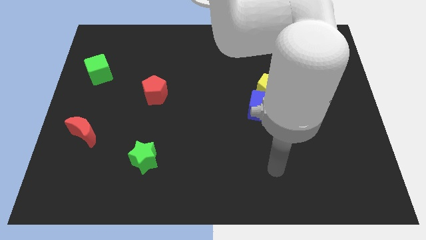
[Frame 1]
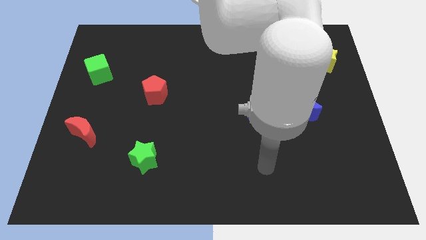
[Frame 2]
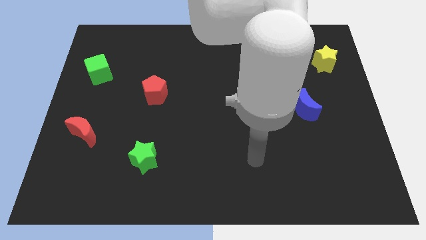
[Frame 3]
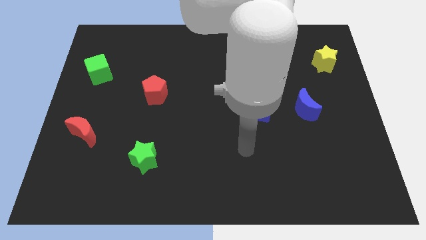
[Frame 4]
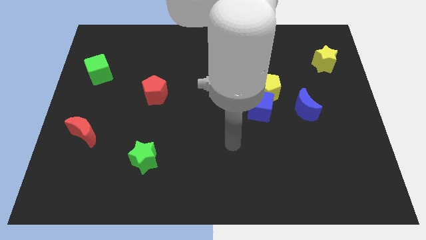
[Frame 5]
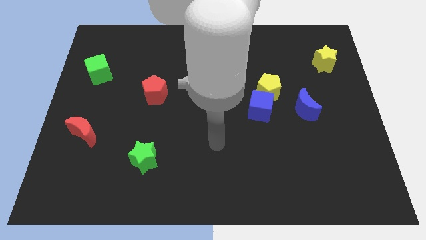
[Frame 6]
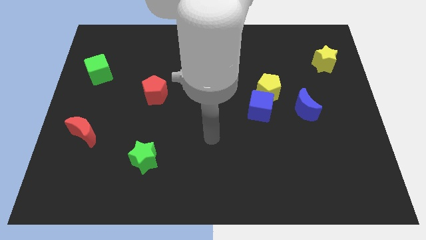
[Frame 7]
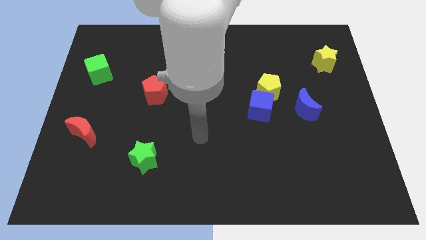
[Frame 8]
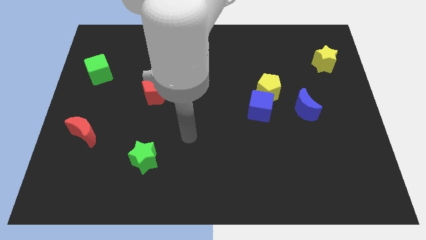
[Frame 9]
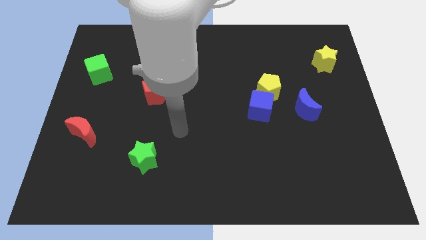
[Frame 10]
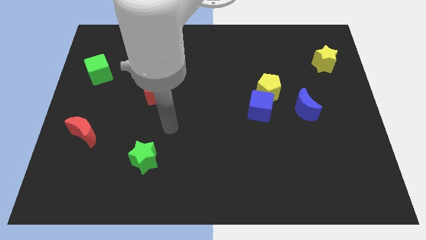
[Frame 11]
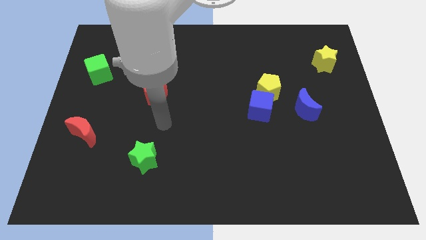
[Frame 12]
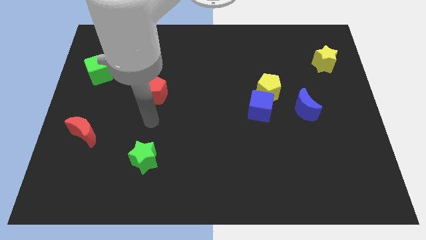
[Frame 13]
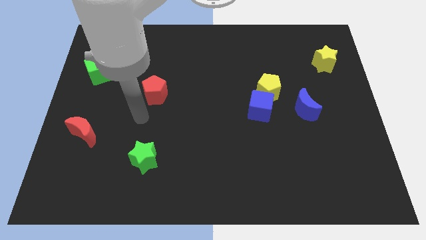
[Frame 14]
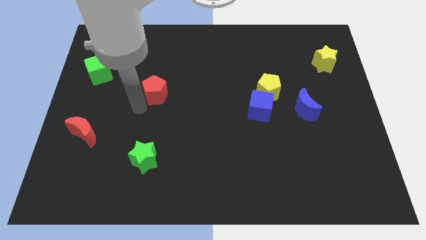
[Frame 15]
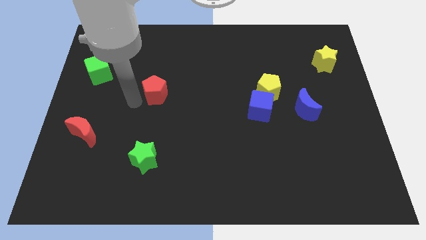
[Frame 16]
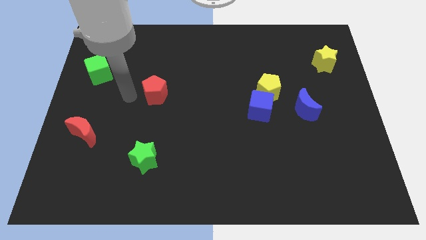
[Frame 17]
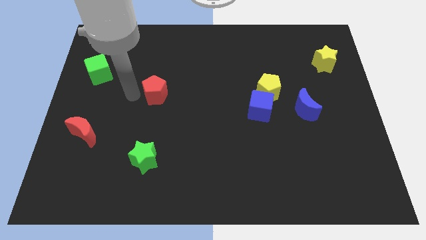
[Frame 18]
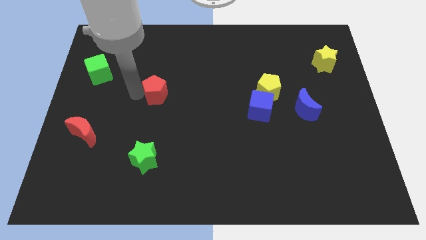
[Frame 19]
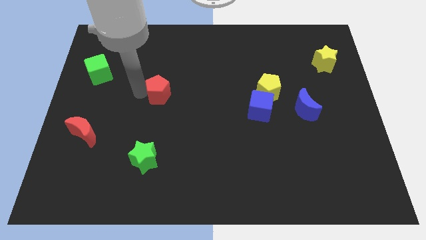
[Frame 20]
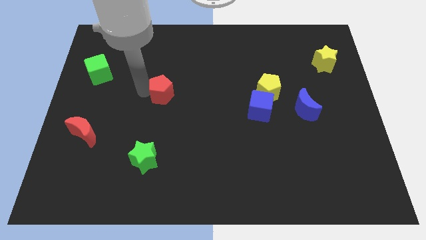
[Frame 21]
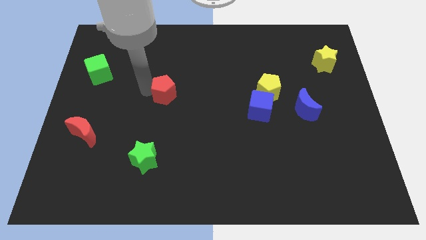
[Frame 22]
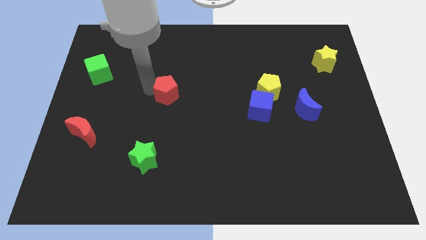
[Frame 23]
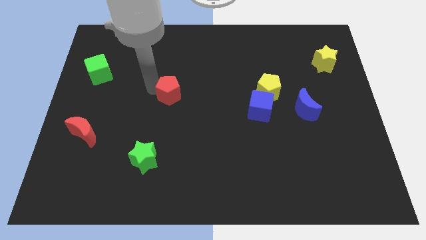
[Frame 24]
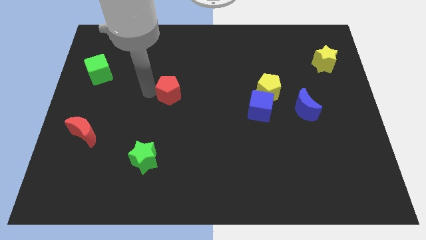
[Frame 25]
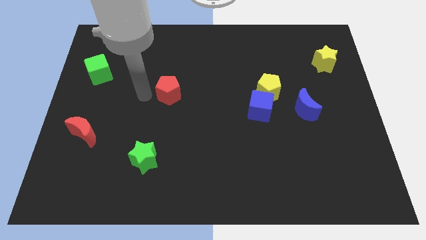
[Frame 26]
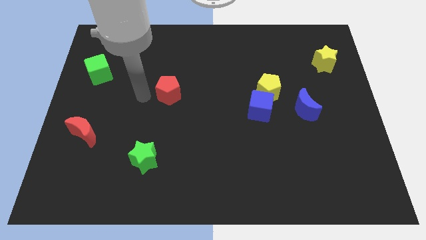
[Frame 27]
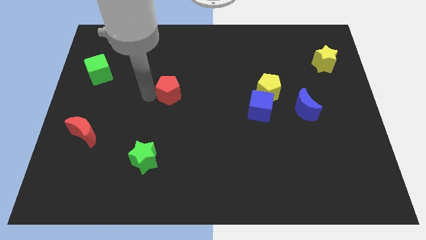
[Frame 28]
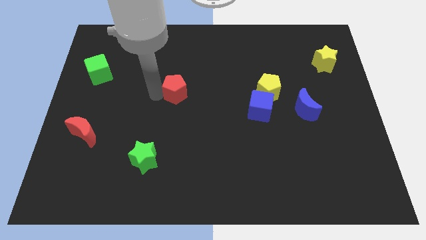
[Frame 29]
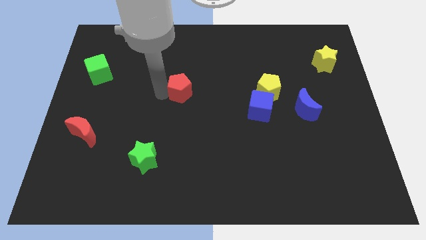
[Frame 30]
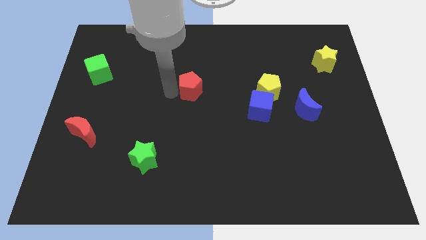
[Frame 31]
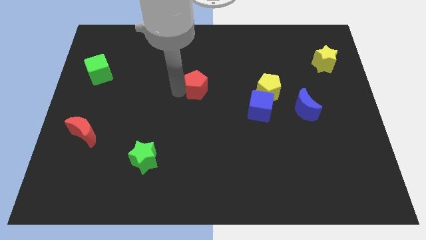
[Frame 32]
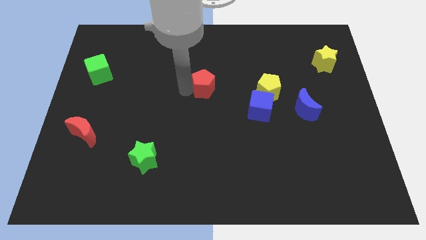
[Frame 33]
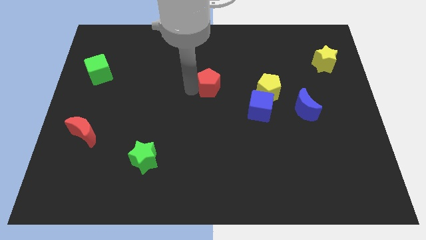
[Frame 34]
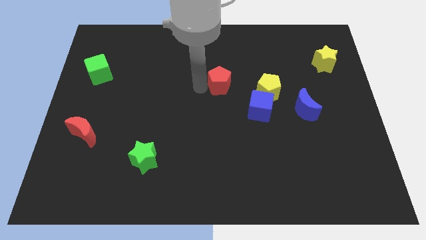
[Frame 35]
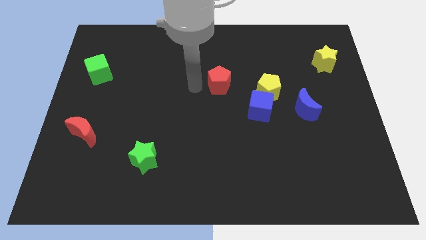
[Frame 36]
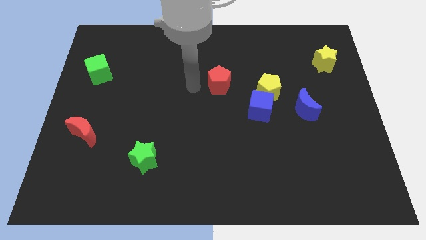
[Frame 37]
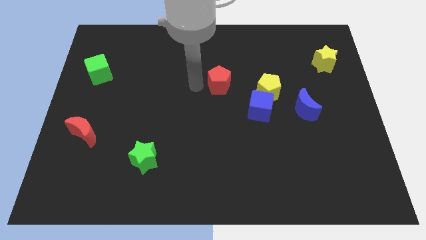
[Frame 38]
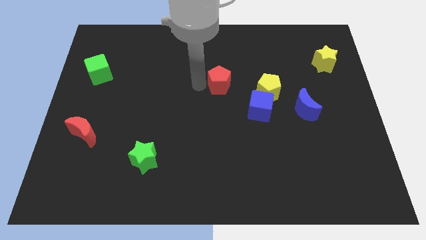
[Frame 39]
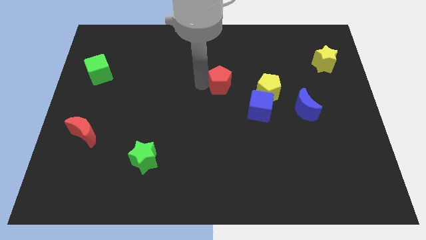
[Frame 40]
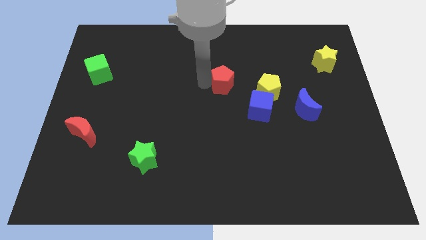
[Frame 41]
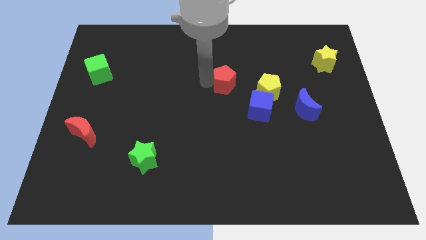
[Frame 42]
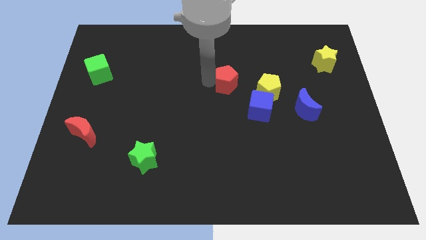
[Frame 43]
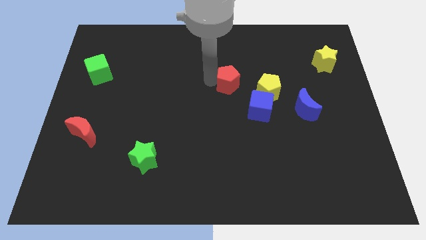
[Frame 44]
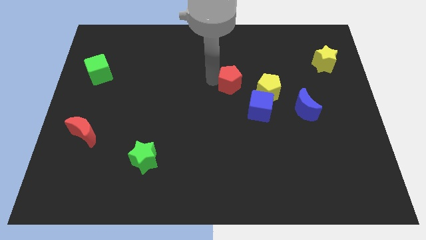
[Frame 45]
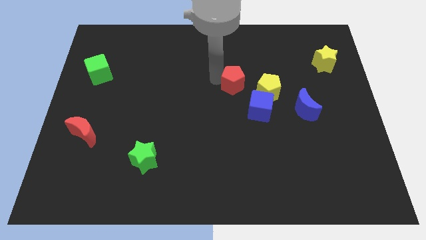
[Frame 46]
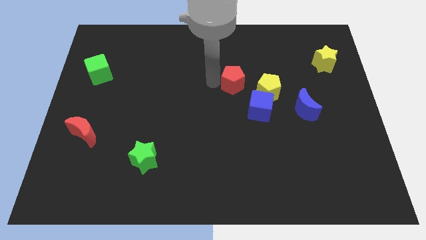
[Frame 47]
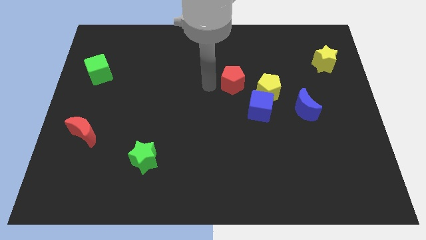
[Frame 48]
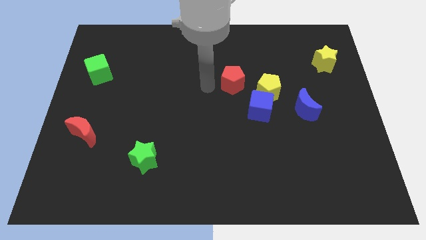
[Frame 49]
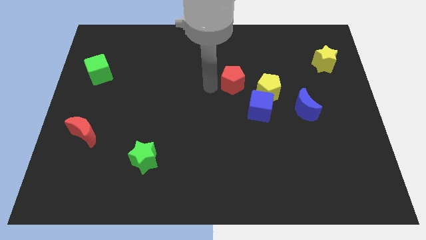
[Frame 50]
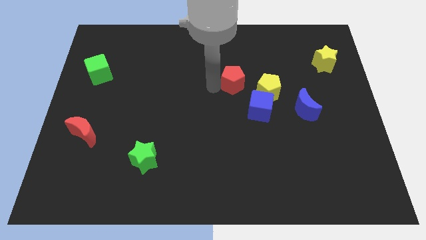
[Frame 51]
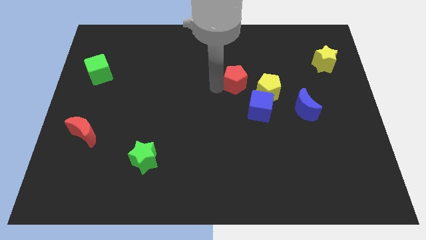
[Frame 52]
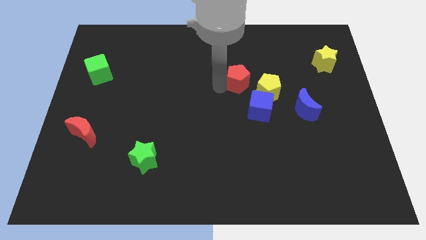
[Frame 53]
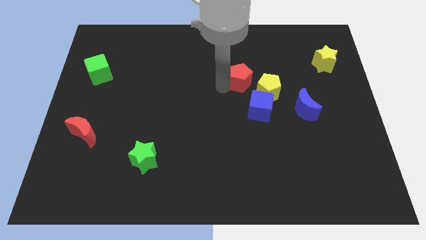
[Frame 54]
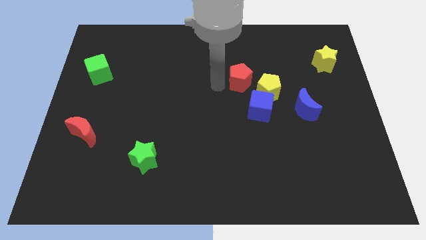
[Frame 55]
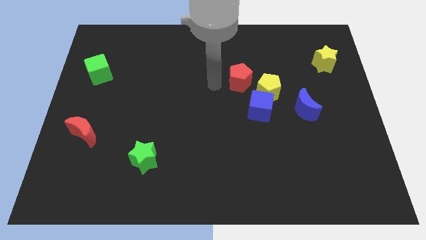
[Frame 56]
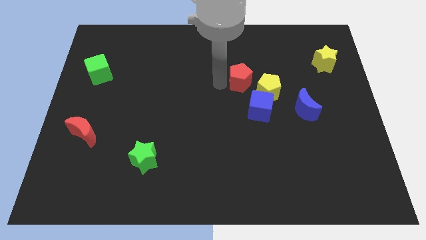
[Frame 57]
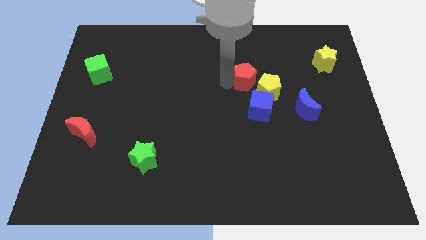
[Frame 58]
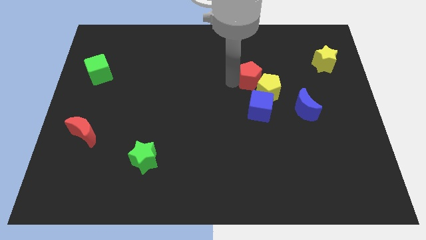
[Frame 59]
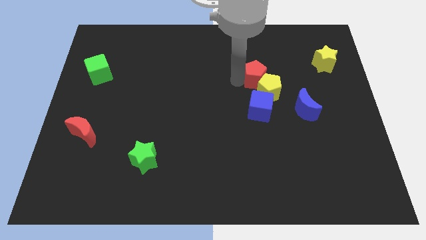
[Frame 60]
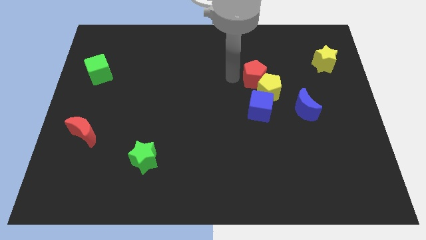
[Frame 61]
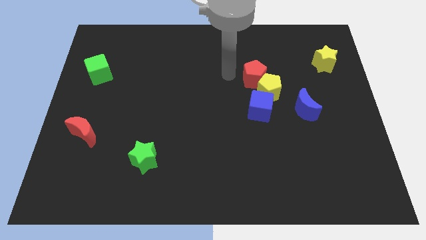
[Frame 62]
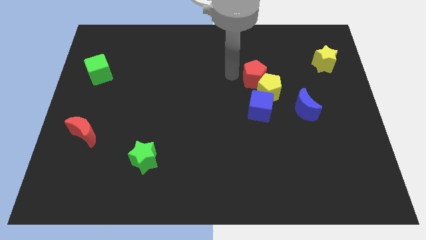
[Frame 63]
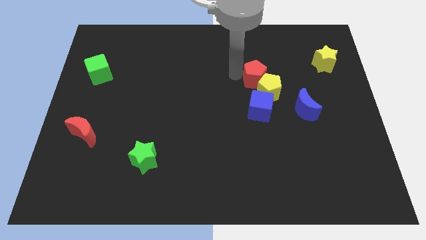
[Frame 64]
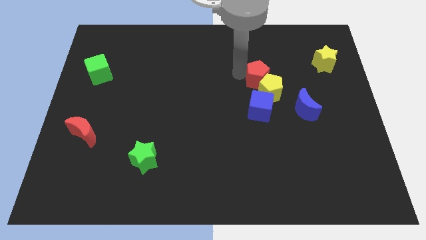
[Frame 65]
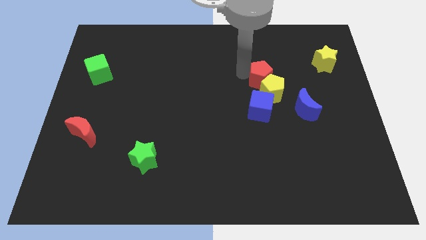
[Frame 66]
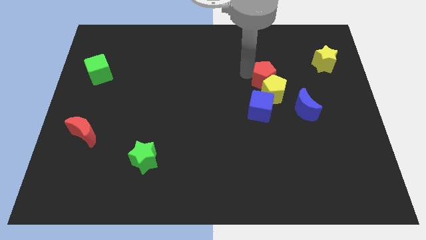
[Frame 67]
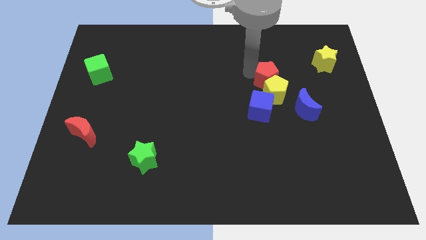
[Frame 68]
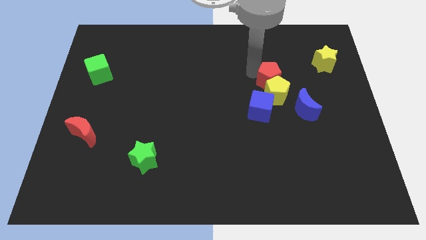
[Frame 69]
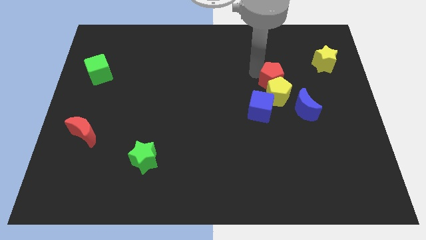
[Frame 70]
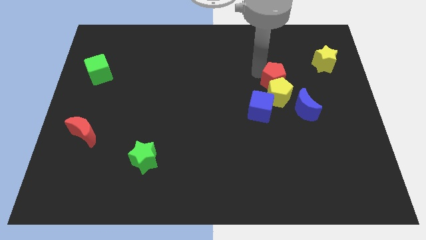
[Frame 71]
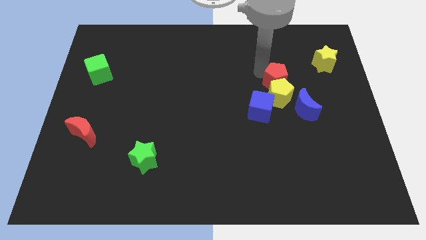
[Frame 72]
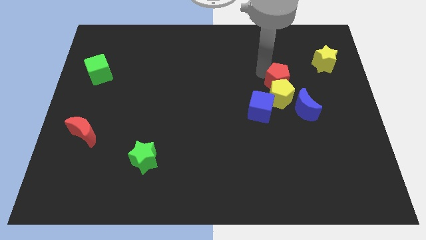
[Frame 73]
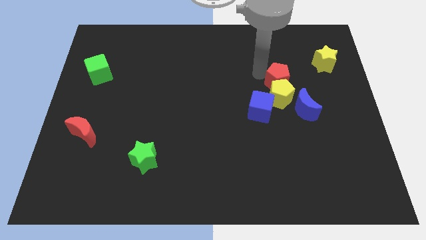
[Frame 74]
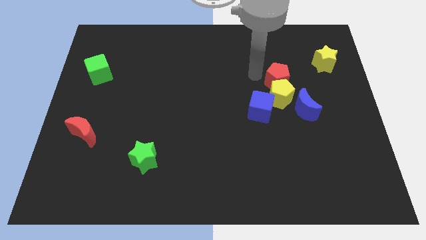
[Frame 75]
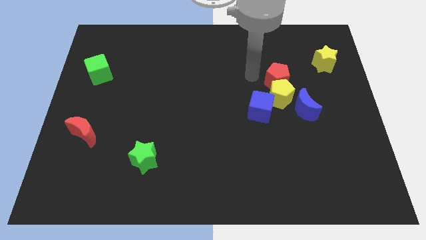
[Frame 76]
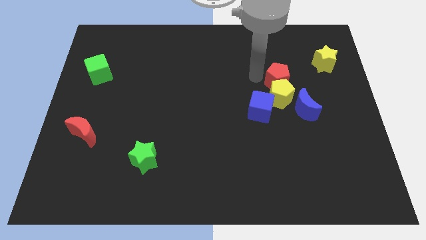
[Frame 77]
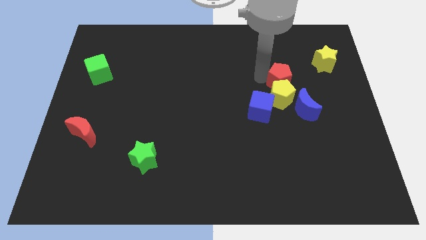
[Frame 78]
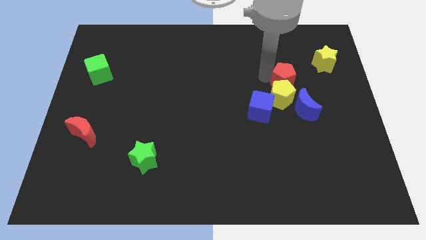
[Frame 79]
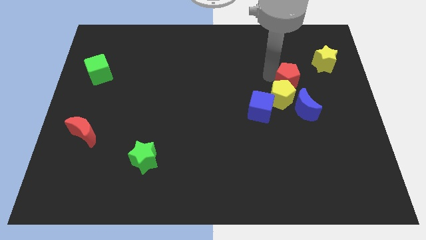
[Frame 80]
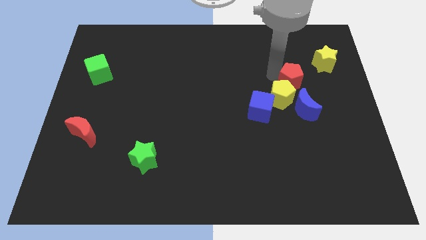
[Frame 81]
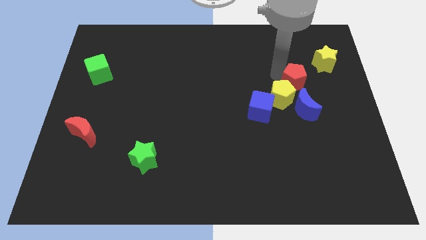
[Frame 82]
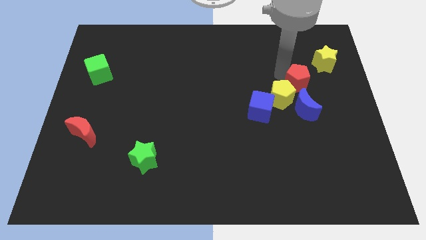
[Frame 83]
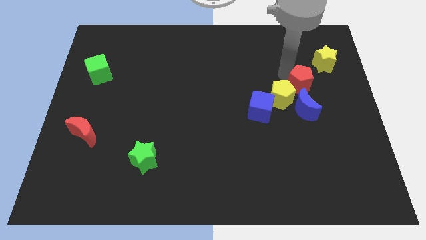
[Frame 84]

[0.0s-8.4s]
push the red pentagon to the right side of the yellow pentagon
